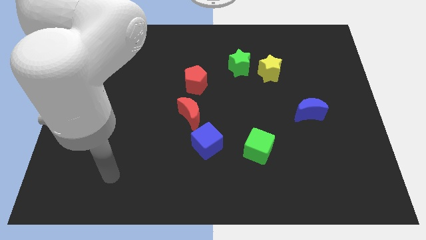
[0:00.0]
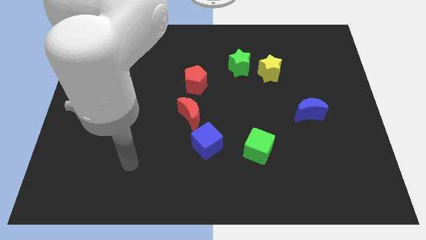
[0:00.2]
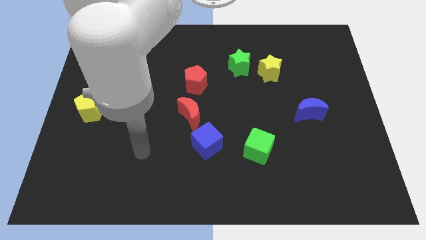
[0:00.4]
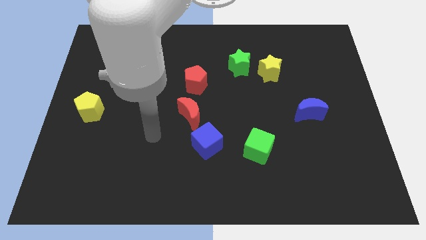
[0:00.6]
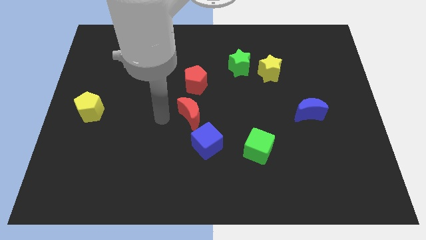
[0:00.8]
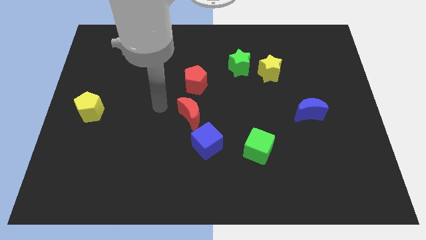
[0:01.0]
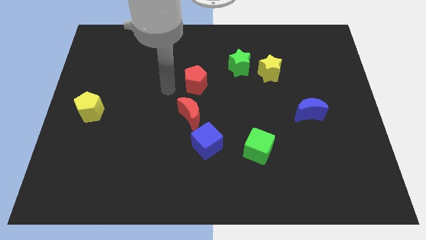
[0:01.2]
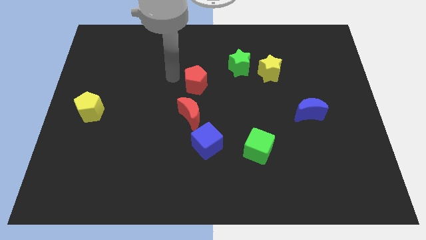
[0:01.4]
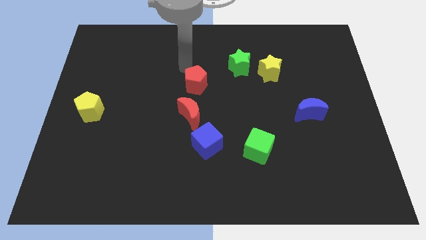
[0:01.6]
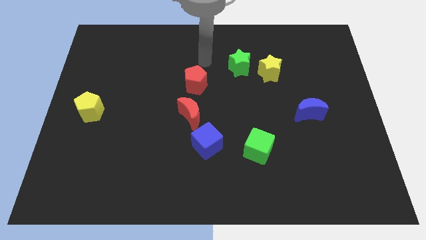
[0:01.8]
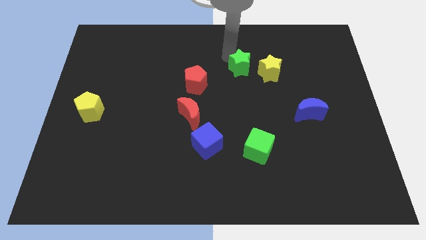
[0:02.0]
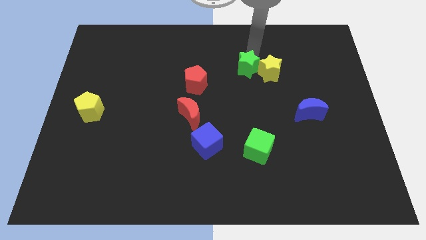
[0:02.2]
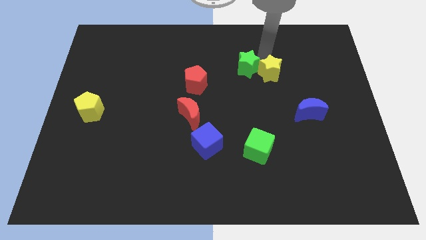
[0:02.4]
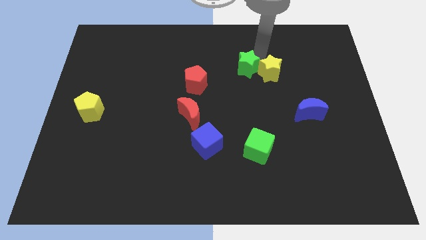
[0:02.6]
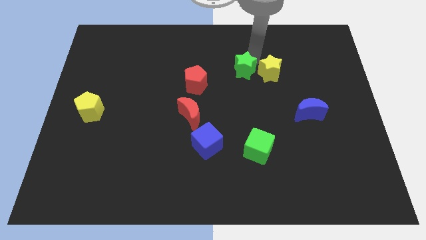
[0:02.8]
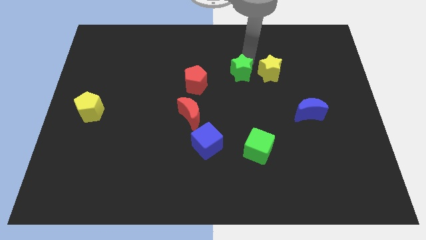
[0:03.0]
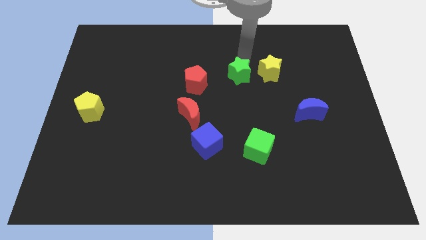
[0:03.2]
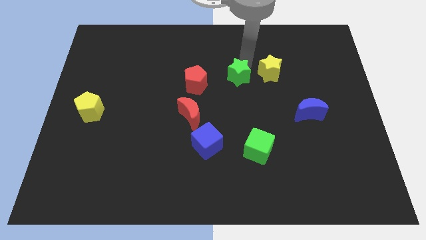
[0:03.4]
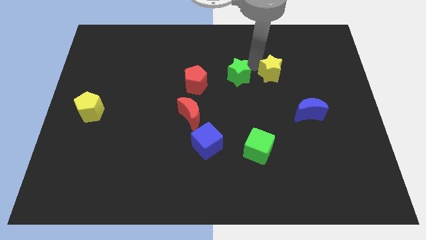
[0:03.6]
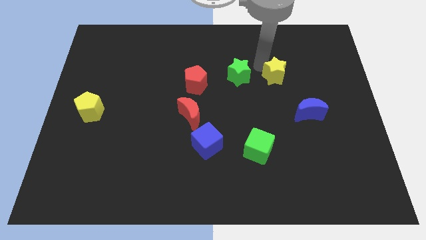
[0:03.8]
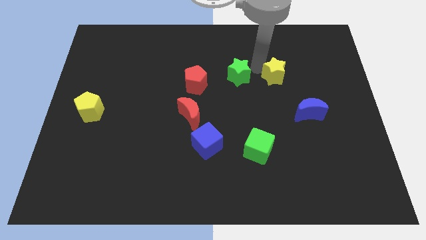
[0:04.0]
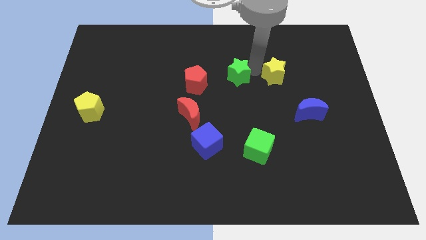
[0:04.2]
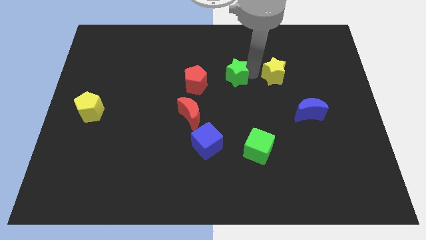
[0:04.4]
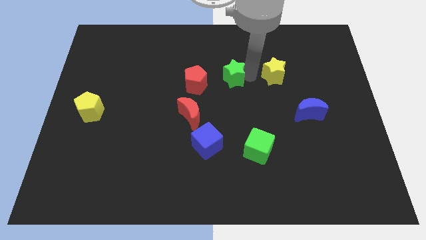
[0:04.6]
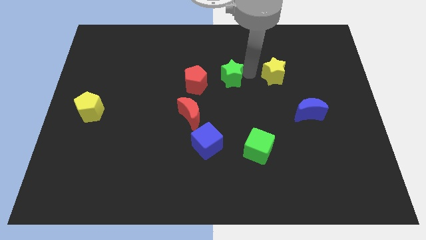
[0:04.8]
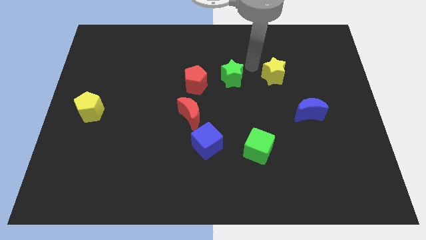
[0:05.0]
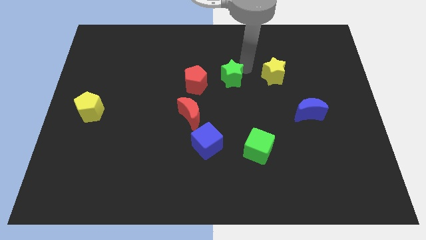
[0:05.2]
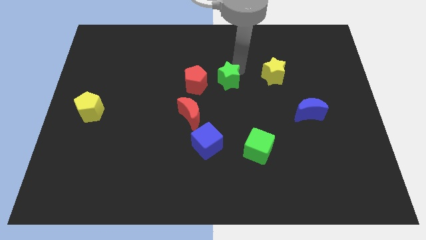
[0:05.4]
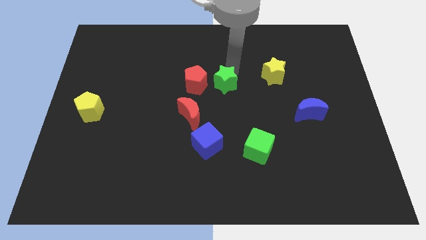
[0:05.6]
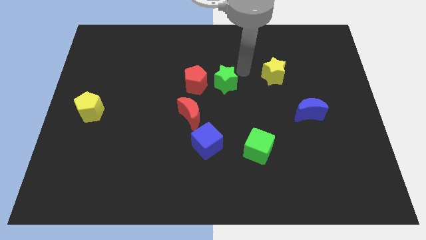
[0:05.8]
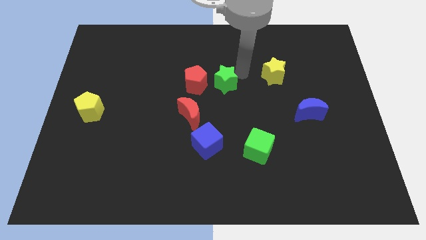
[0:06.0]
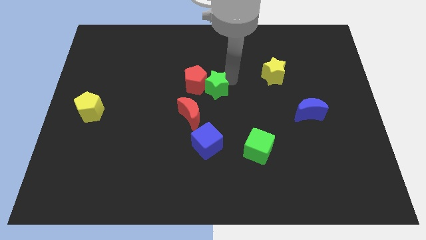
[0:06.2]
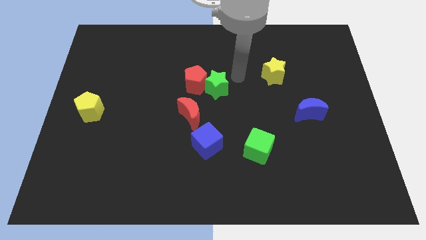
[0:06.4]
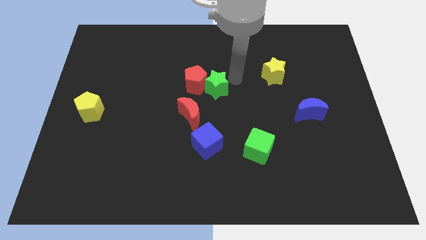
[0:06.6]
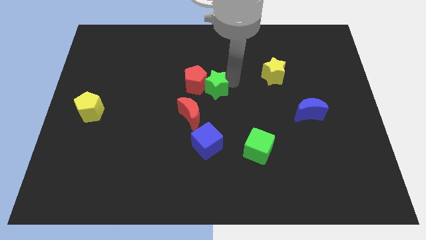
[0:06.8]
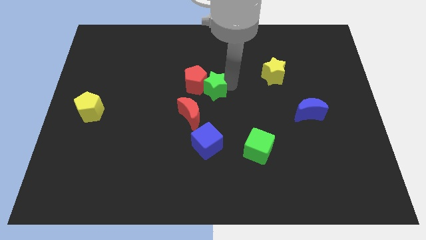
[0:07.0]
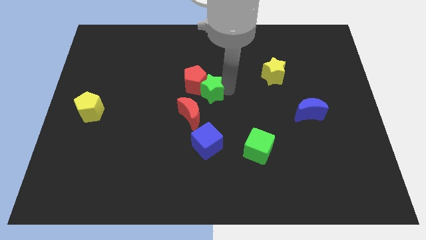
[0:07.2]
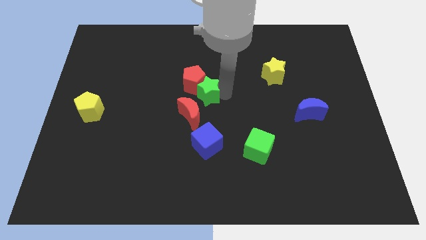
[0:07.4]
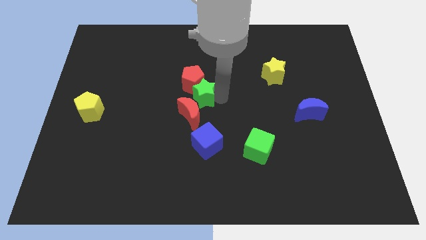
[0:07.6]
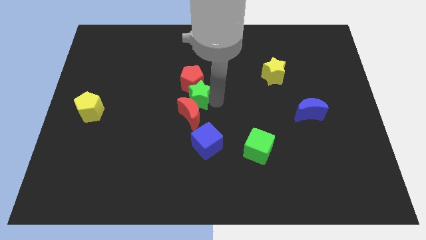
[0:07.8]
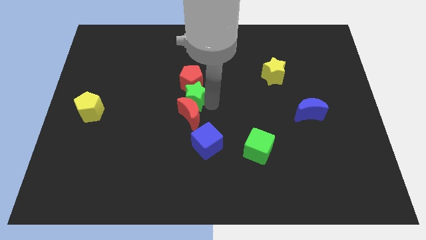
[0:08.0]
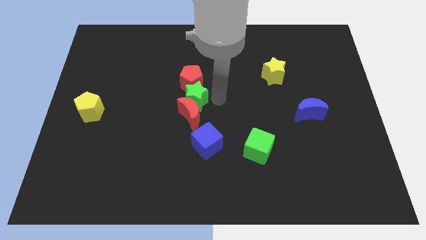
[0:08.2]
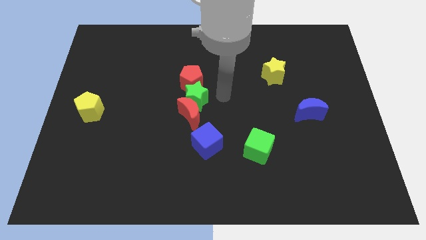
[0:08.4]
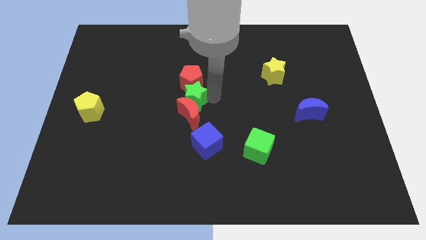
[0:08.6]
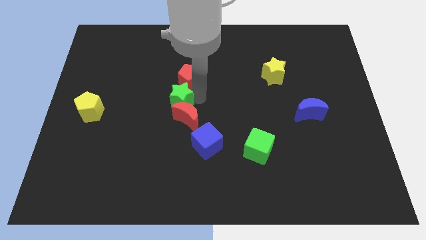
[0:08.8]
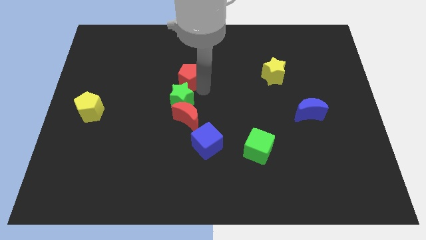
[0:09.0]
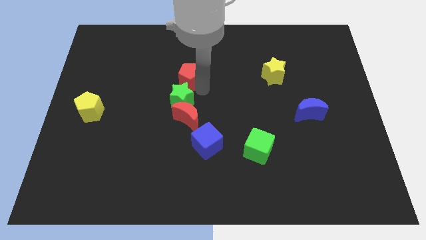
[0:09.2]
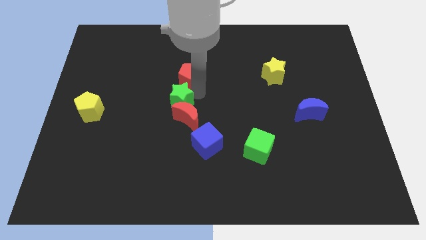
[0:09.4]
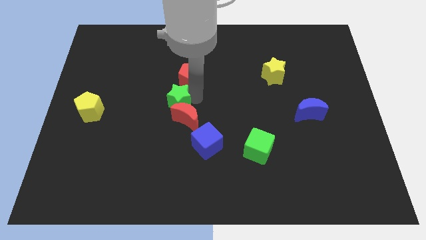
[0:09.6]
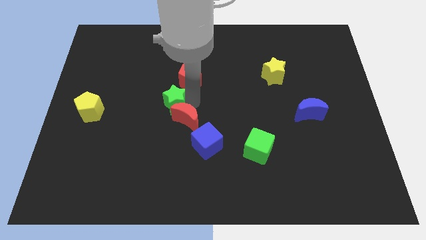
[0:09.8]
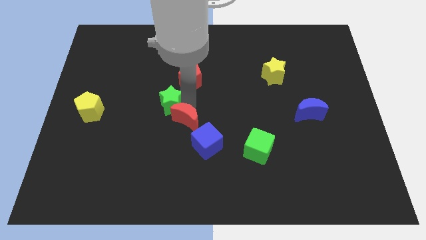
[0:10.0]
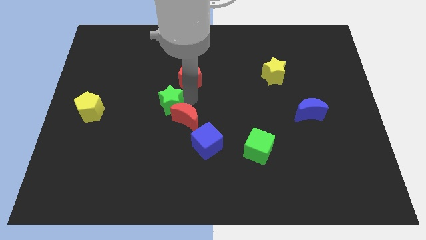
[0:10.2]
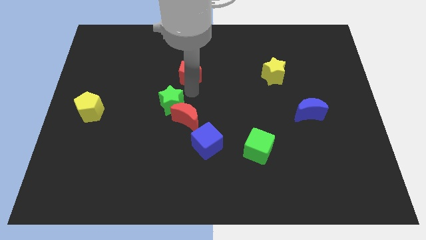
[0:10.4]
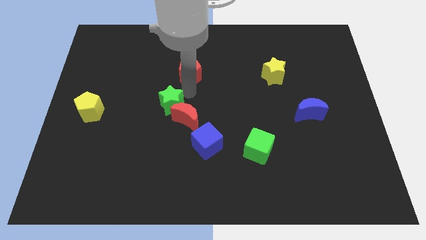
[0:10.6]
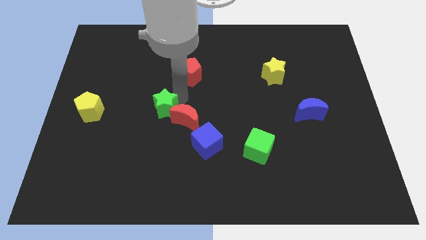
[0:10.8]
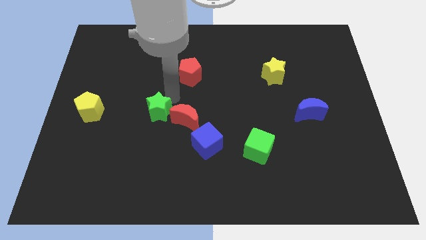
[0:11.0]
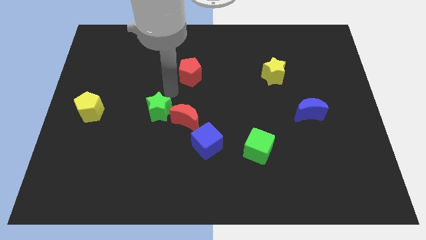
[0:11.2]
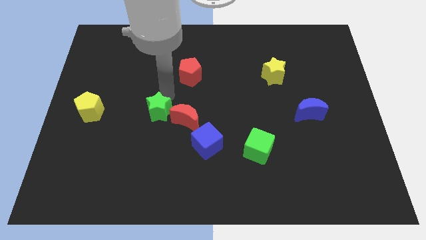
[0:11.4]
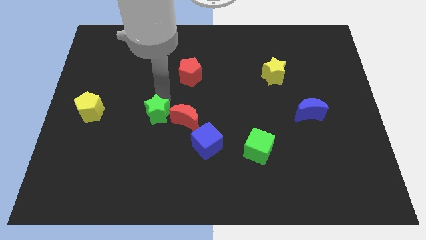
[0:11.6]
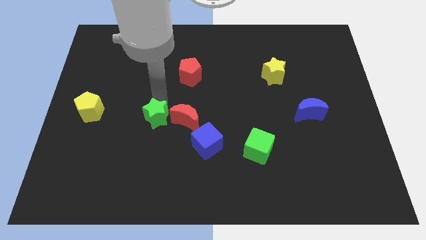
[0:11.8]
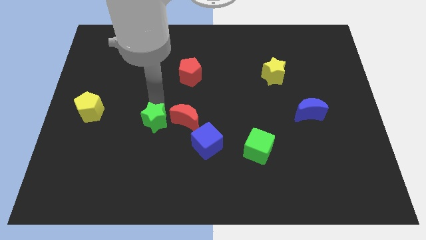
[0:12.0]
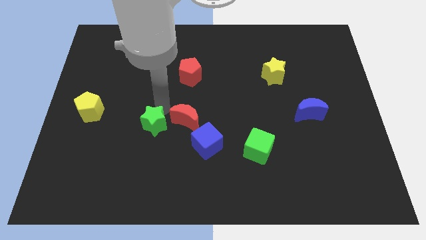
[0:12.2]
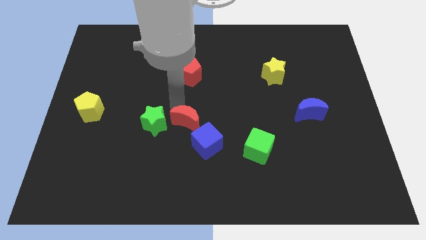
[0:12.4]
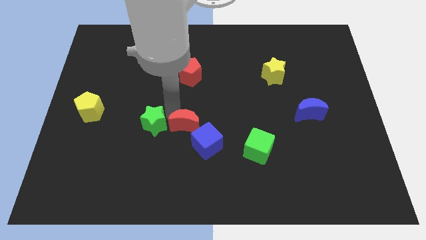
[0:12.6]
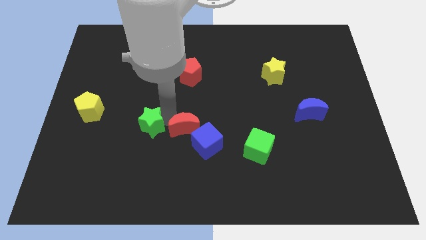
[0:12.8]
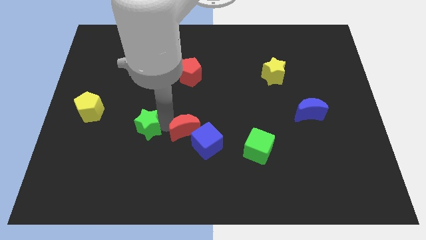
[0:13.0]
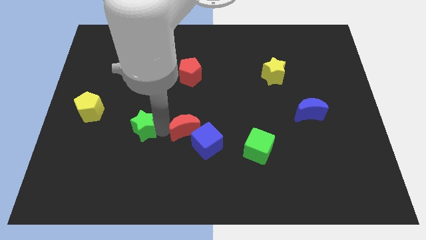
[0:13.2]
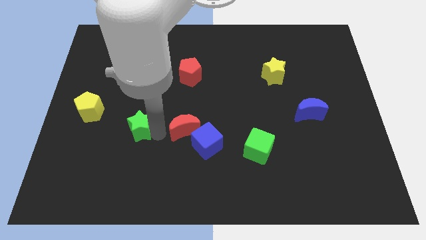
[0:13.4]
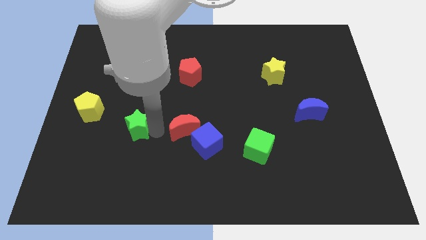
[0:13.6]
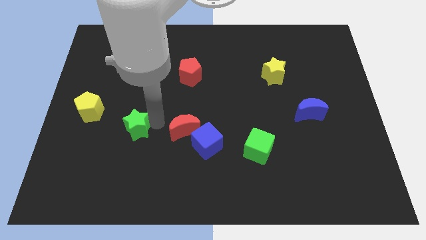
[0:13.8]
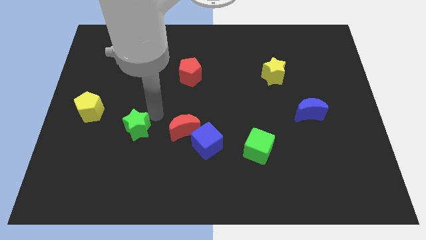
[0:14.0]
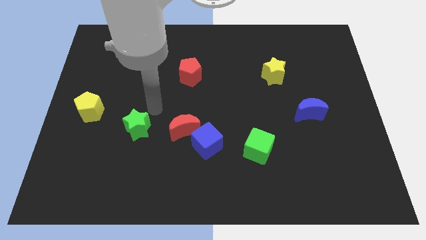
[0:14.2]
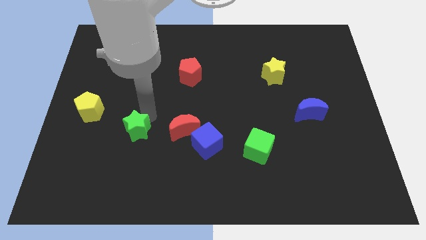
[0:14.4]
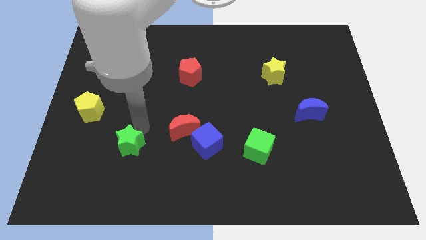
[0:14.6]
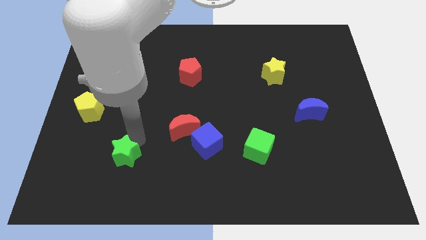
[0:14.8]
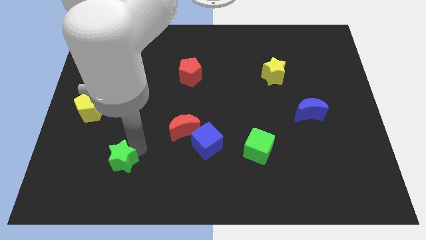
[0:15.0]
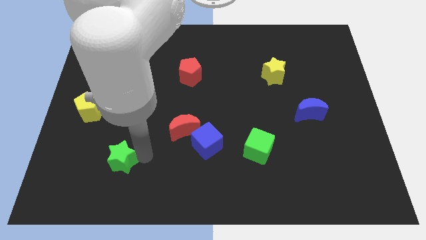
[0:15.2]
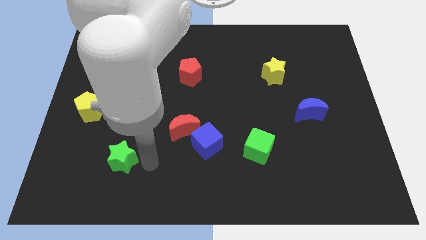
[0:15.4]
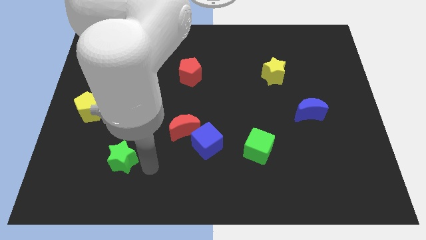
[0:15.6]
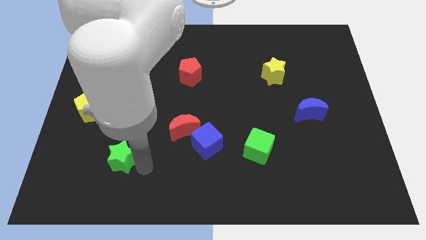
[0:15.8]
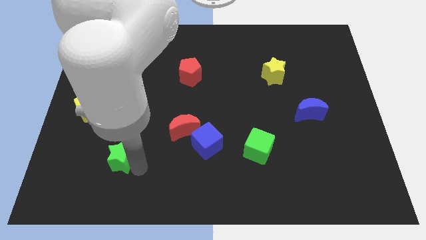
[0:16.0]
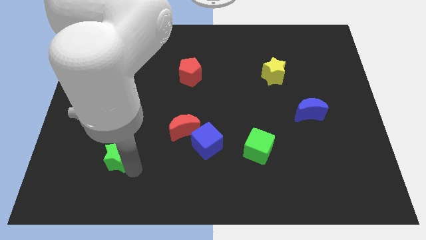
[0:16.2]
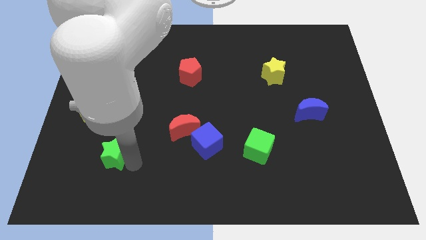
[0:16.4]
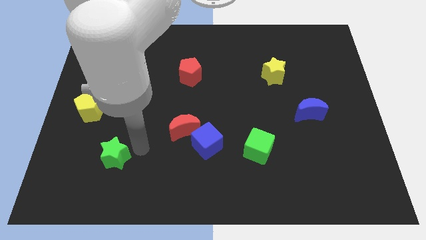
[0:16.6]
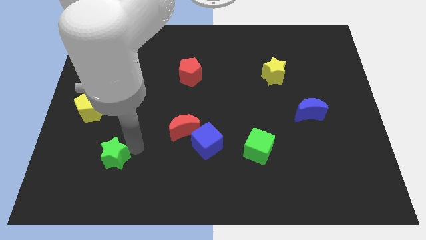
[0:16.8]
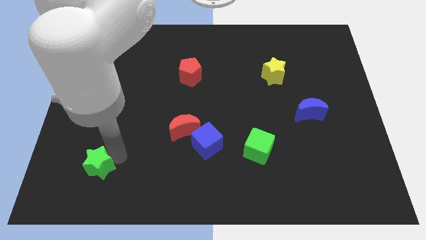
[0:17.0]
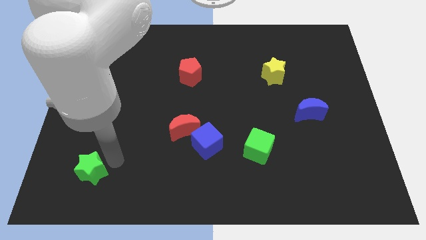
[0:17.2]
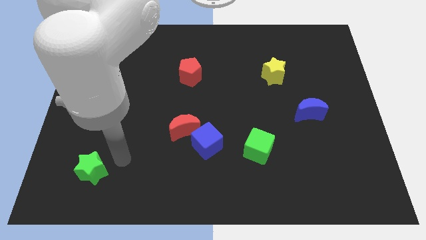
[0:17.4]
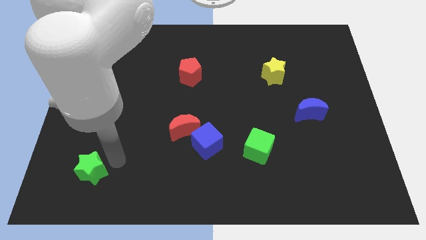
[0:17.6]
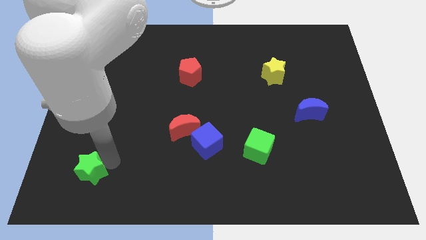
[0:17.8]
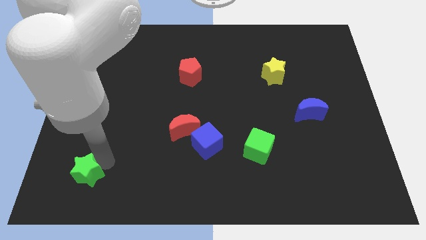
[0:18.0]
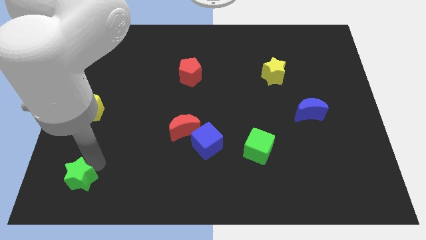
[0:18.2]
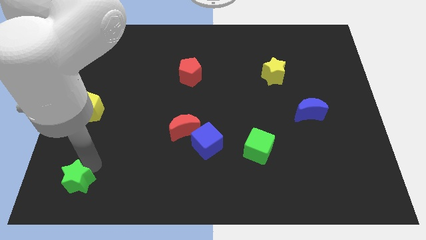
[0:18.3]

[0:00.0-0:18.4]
slide the green star to the bottom left of the board
